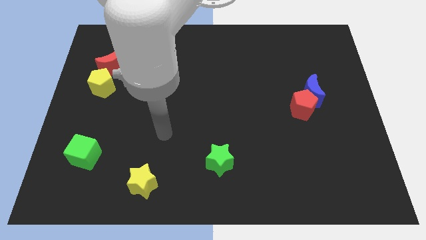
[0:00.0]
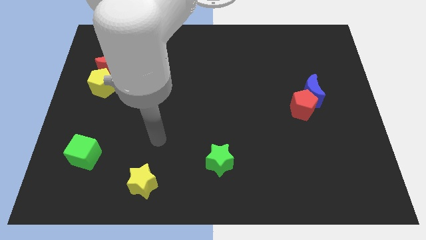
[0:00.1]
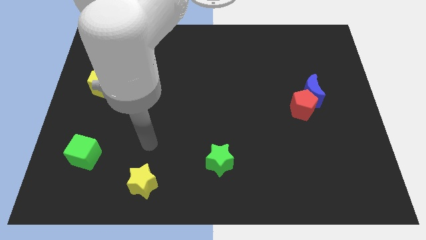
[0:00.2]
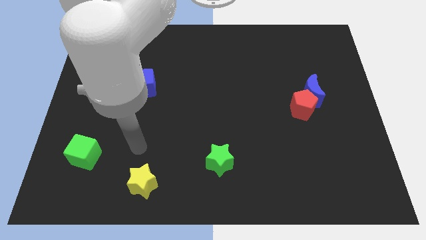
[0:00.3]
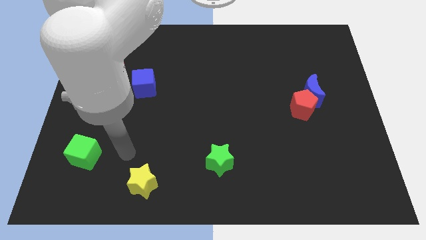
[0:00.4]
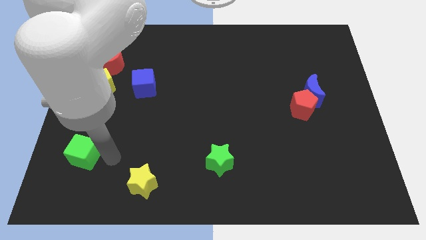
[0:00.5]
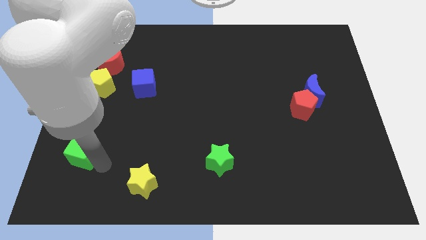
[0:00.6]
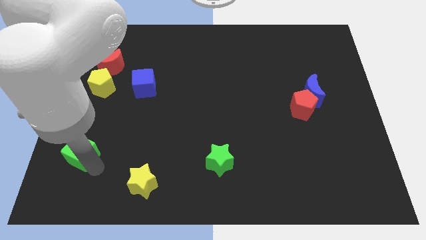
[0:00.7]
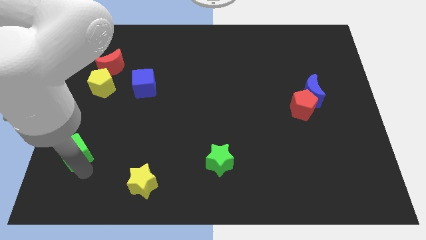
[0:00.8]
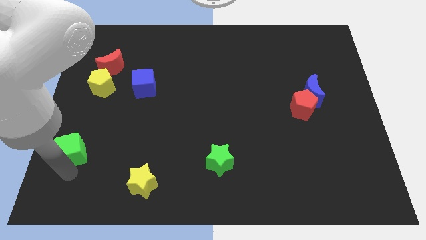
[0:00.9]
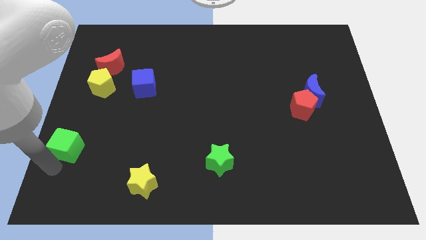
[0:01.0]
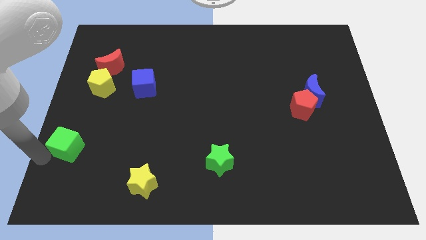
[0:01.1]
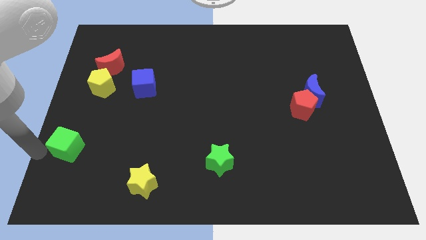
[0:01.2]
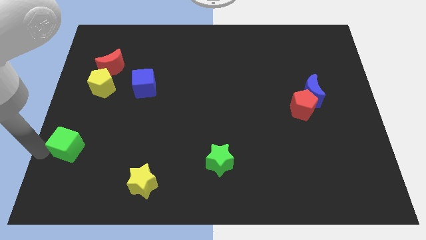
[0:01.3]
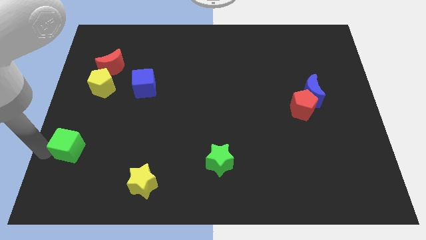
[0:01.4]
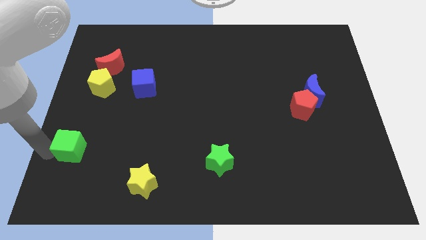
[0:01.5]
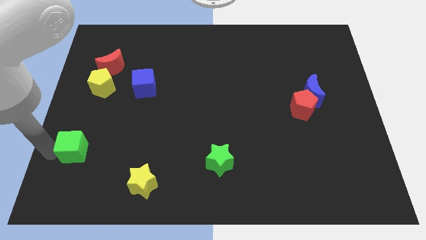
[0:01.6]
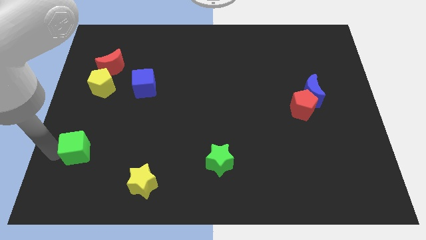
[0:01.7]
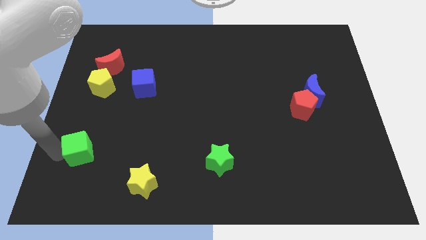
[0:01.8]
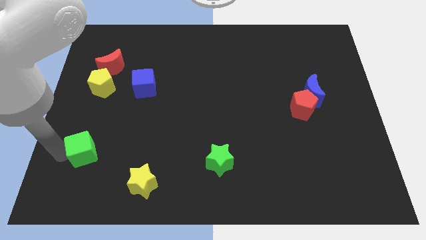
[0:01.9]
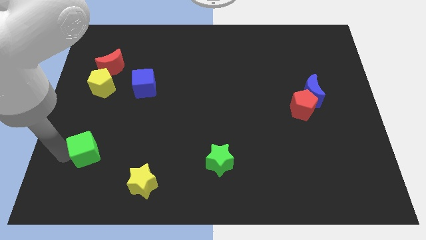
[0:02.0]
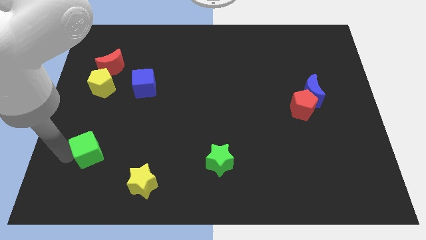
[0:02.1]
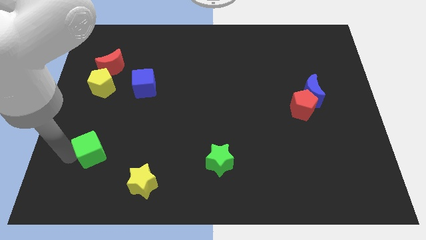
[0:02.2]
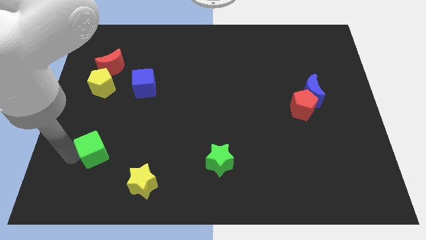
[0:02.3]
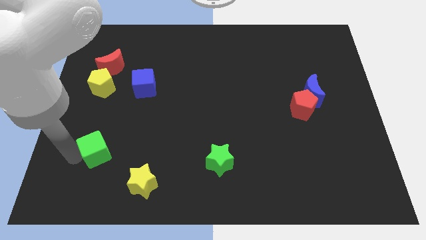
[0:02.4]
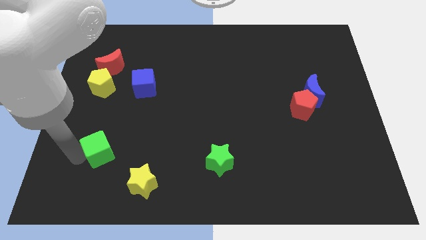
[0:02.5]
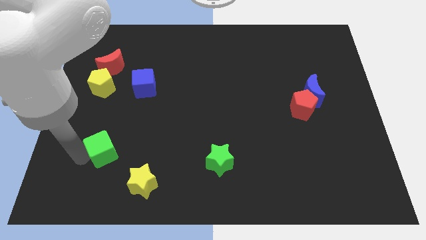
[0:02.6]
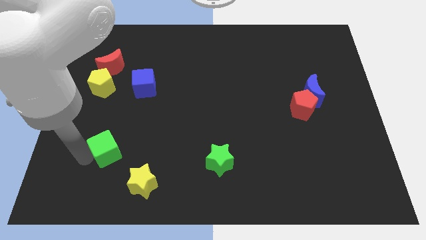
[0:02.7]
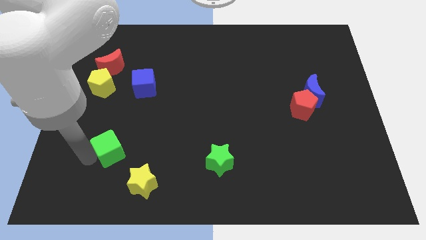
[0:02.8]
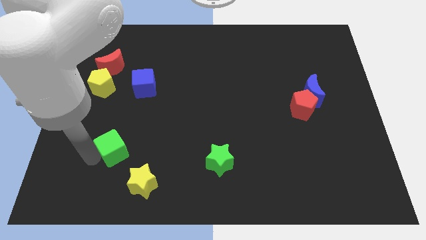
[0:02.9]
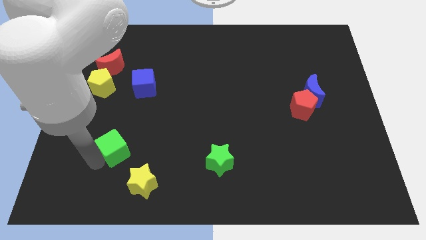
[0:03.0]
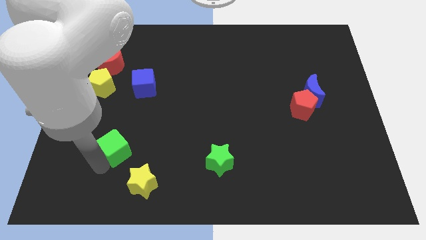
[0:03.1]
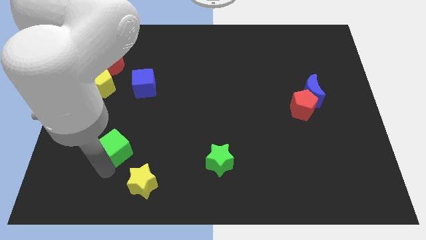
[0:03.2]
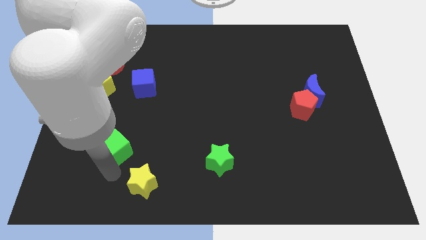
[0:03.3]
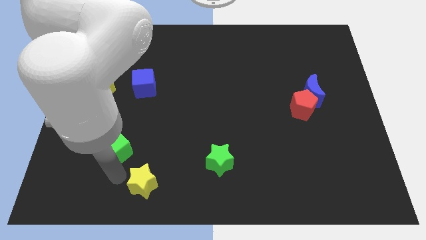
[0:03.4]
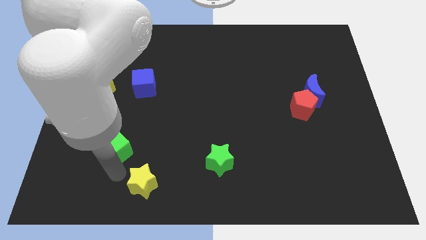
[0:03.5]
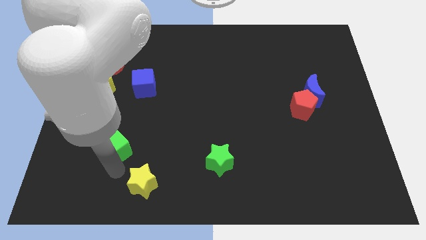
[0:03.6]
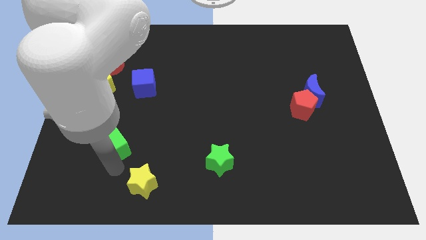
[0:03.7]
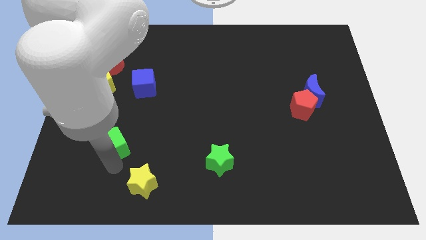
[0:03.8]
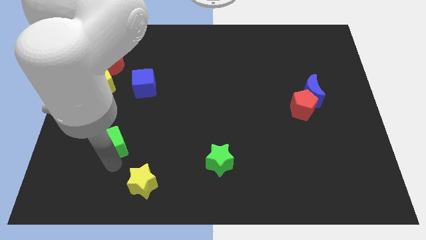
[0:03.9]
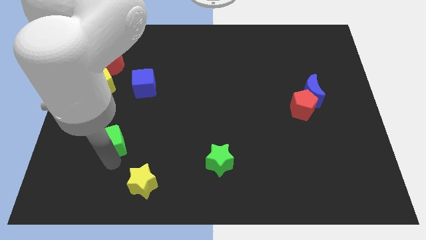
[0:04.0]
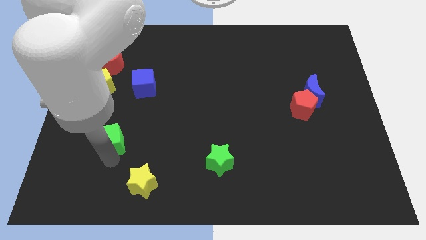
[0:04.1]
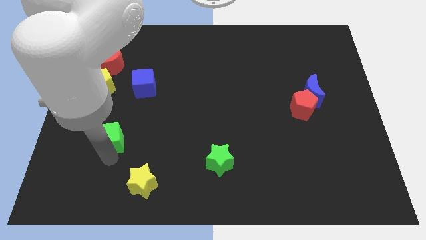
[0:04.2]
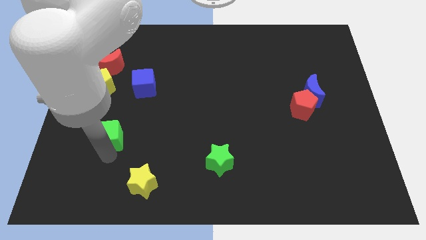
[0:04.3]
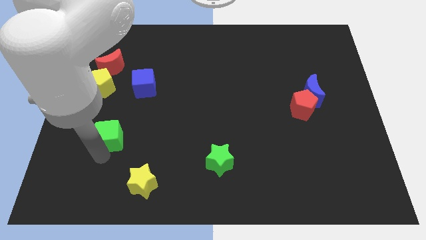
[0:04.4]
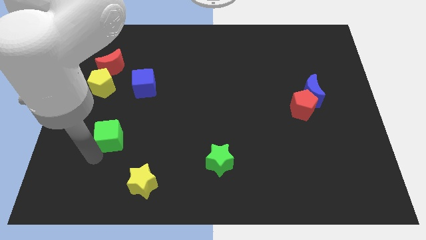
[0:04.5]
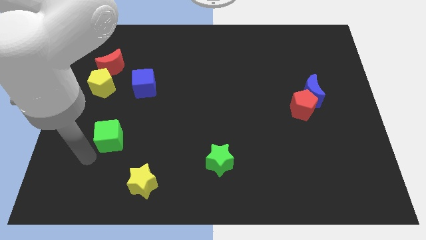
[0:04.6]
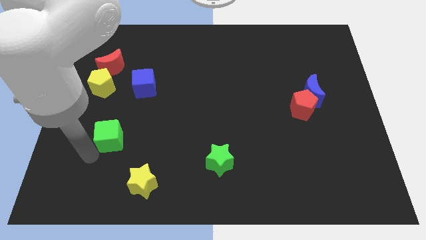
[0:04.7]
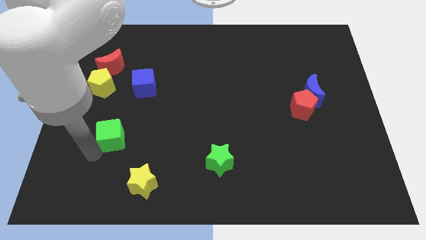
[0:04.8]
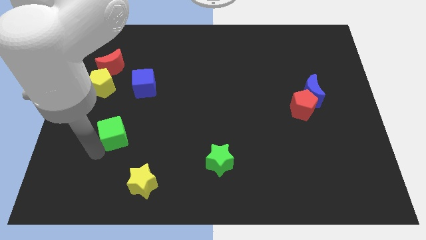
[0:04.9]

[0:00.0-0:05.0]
push the green cube a little bit diagonally upwards and to the right

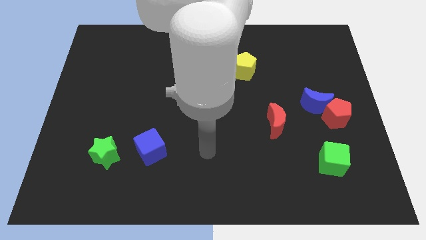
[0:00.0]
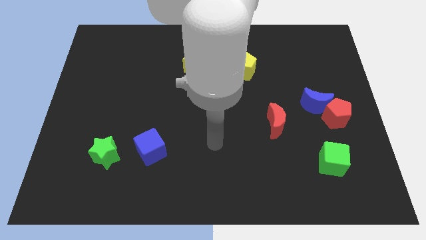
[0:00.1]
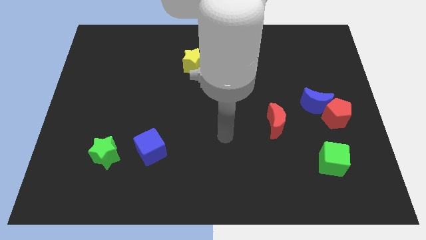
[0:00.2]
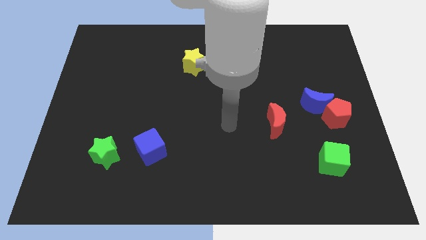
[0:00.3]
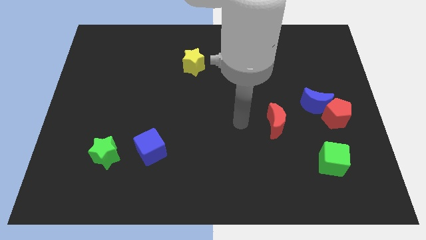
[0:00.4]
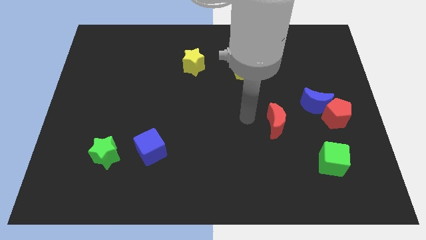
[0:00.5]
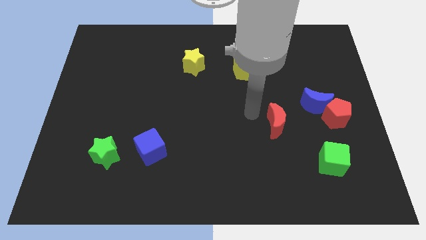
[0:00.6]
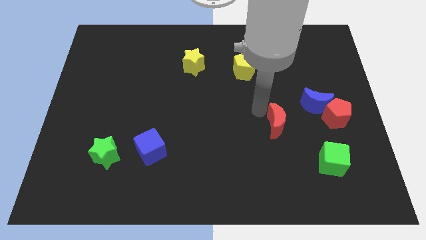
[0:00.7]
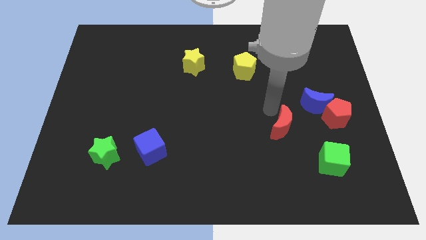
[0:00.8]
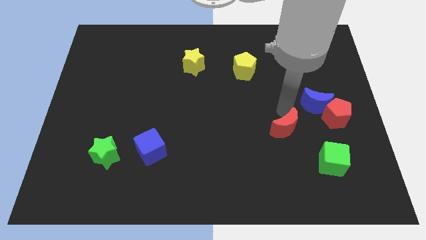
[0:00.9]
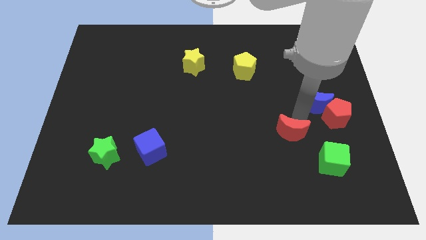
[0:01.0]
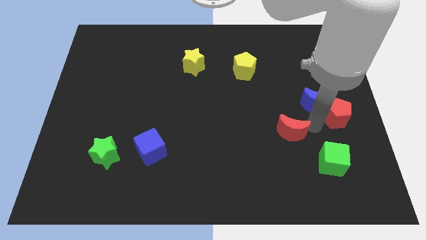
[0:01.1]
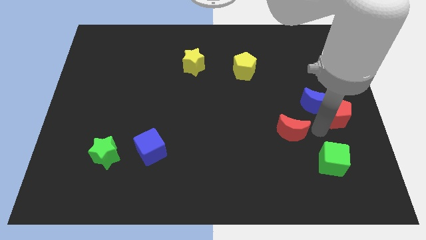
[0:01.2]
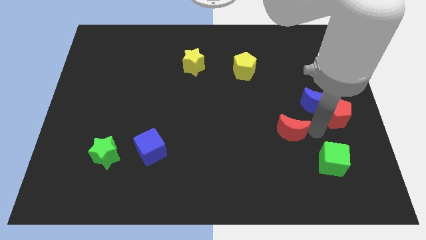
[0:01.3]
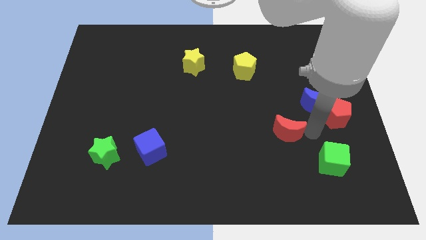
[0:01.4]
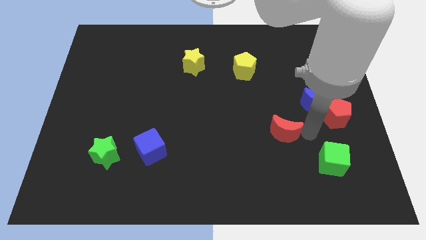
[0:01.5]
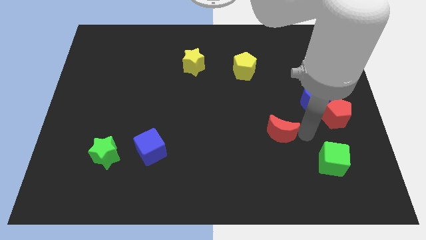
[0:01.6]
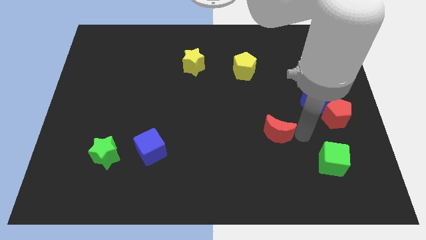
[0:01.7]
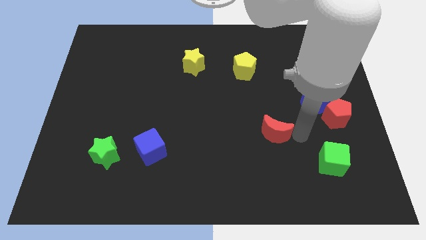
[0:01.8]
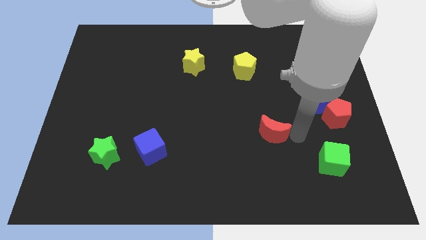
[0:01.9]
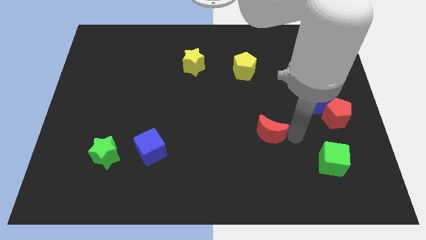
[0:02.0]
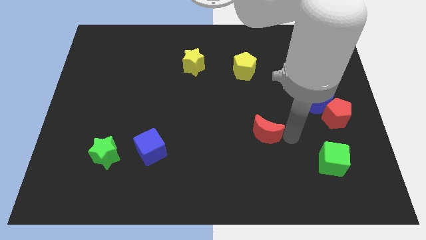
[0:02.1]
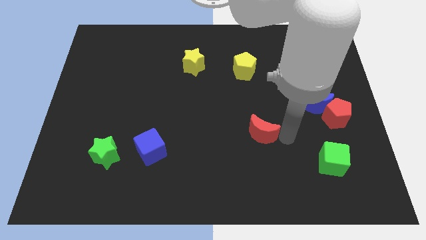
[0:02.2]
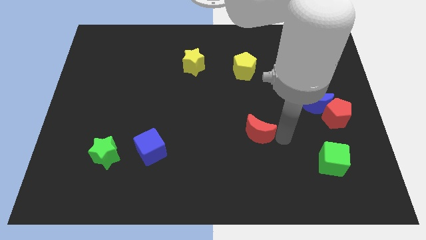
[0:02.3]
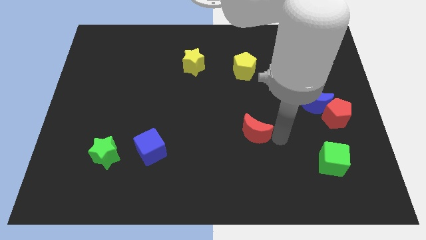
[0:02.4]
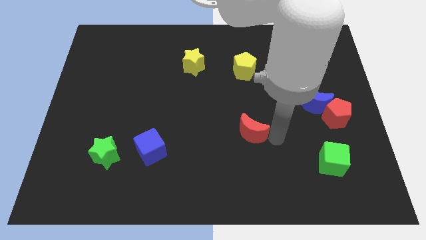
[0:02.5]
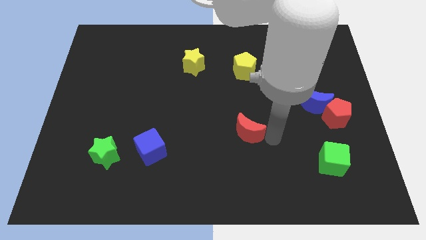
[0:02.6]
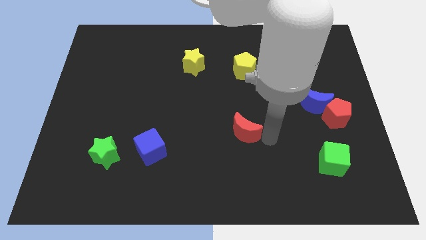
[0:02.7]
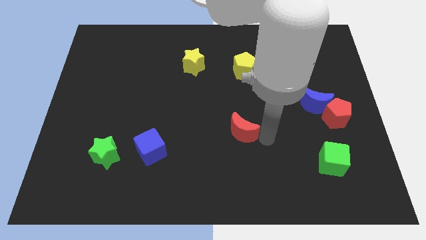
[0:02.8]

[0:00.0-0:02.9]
push the red moon downwards and left diagonally somewhat

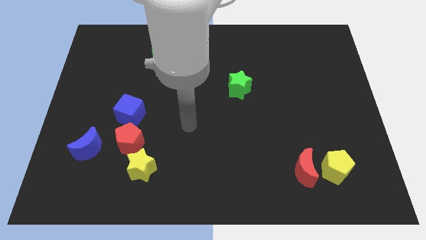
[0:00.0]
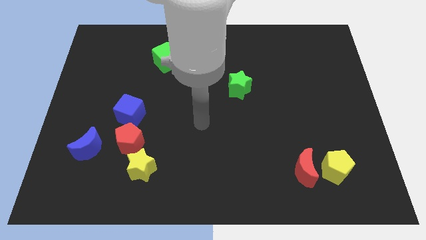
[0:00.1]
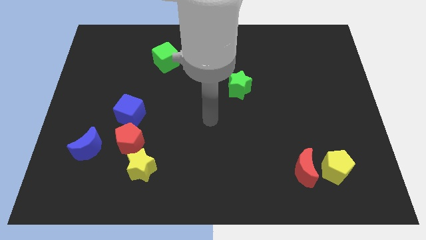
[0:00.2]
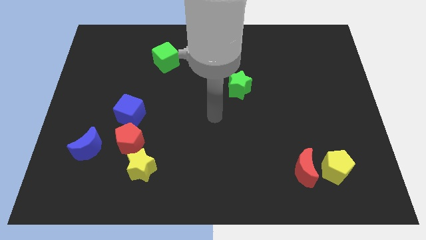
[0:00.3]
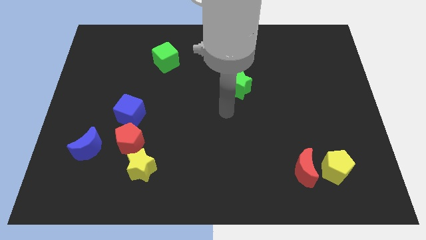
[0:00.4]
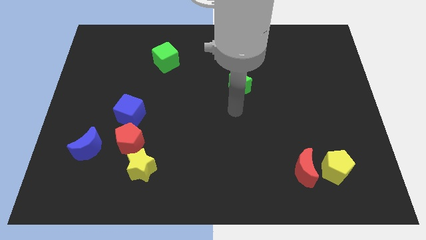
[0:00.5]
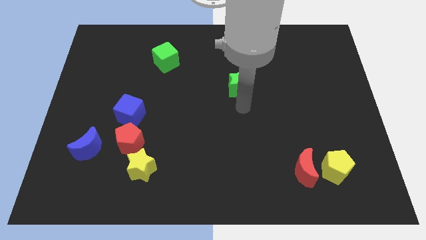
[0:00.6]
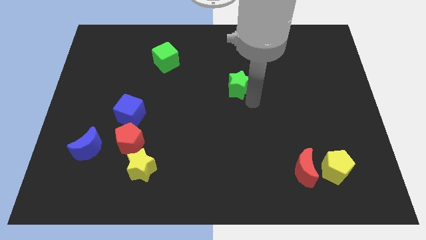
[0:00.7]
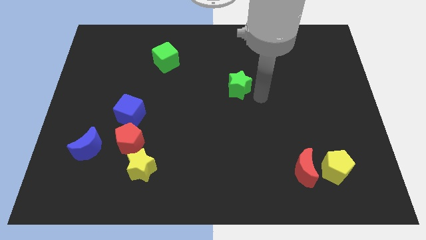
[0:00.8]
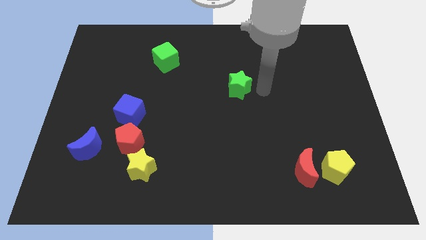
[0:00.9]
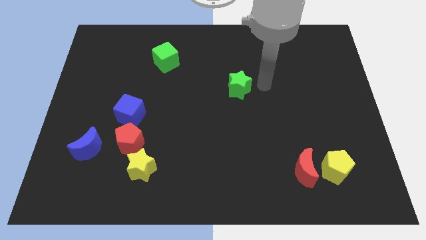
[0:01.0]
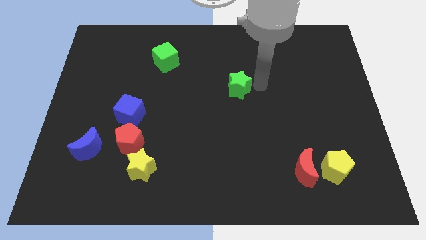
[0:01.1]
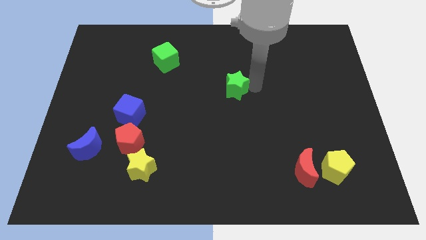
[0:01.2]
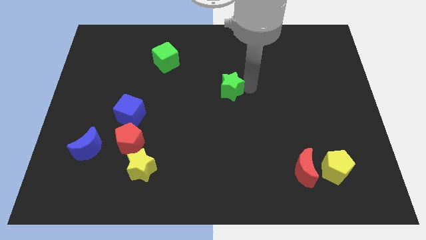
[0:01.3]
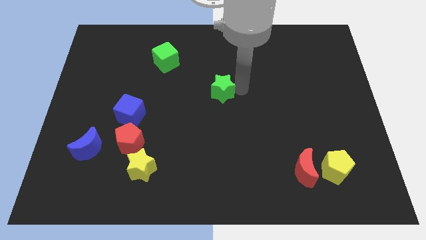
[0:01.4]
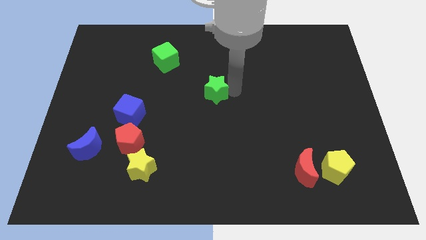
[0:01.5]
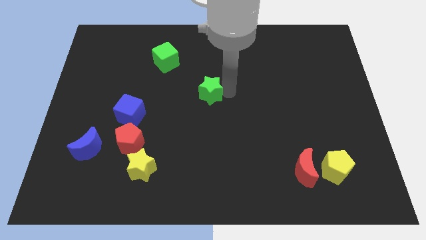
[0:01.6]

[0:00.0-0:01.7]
move the green star left somewhat
